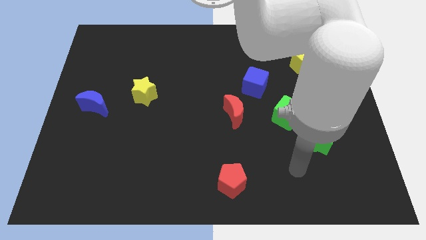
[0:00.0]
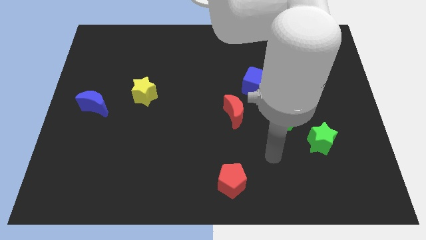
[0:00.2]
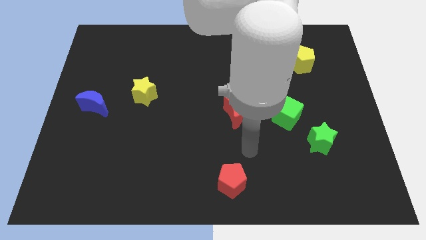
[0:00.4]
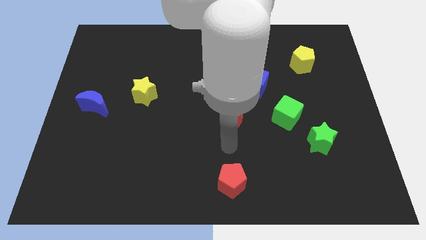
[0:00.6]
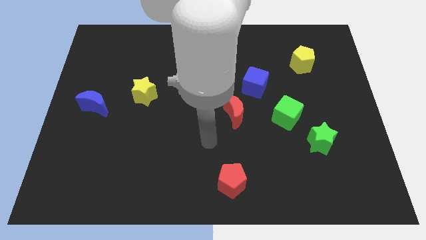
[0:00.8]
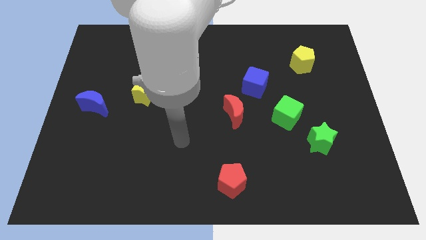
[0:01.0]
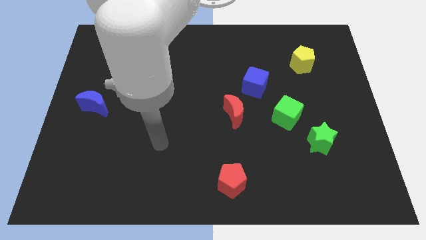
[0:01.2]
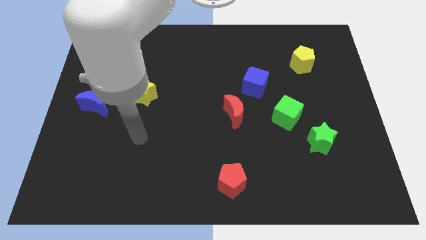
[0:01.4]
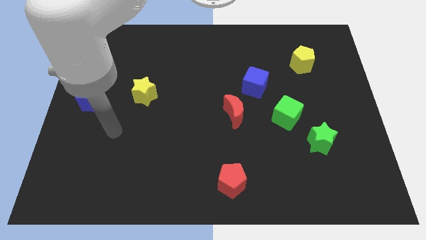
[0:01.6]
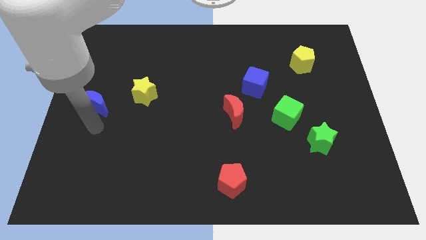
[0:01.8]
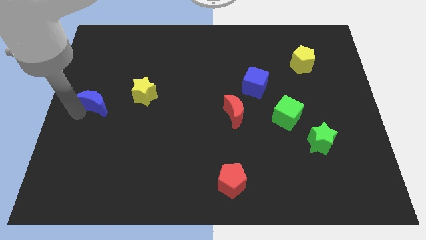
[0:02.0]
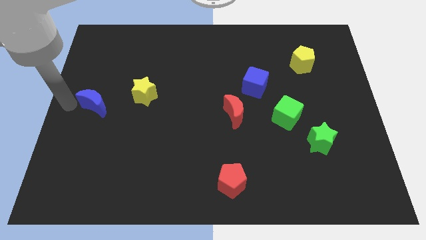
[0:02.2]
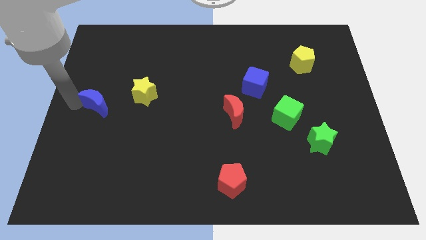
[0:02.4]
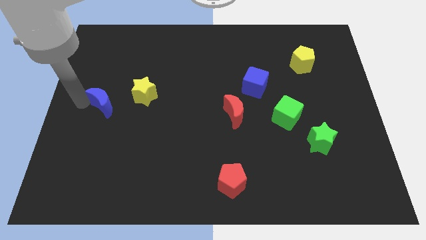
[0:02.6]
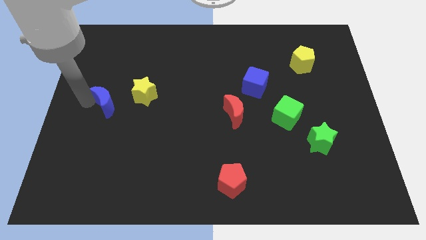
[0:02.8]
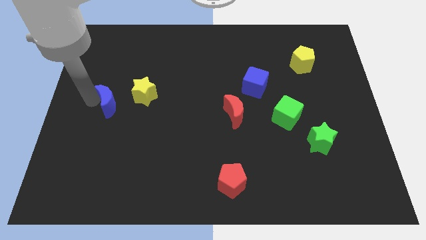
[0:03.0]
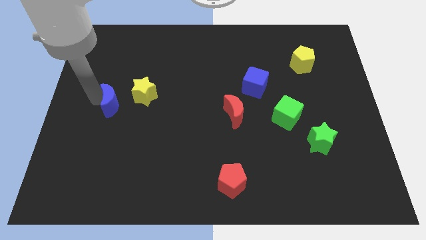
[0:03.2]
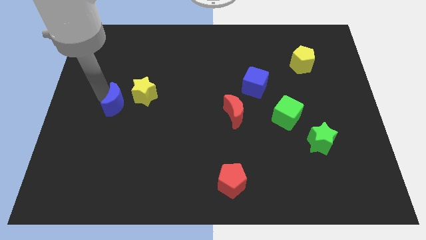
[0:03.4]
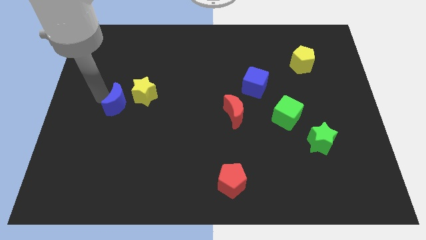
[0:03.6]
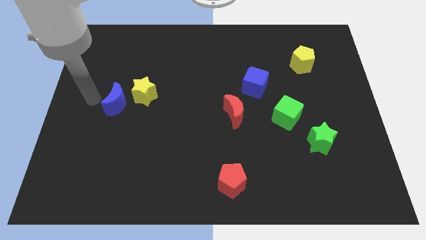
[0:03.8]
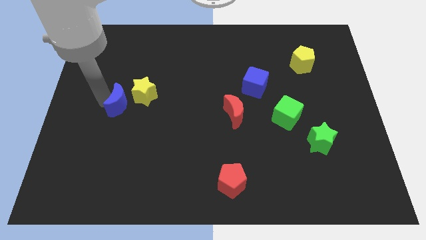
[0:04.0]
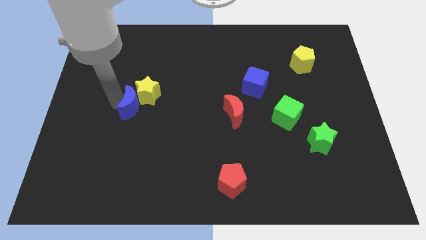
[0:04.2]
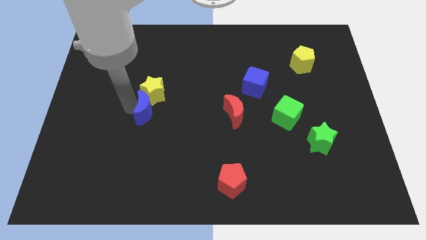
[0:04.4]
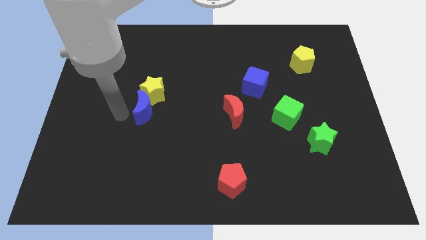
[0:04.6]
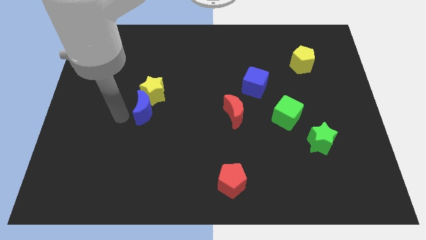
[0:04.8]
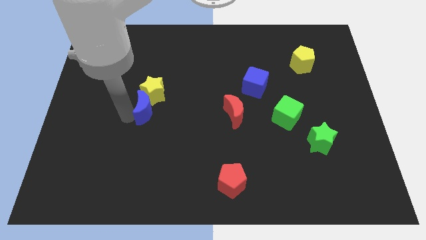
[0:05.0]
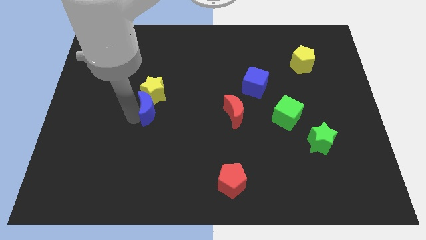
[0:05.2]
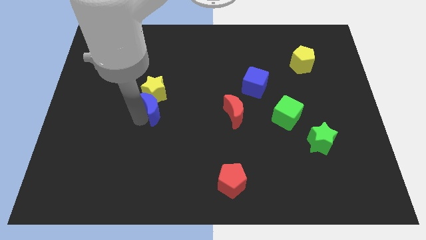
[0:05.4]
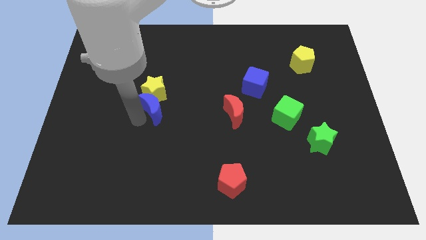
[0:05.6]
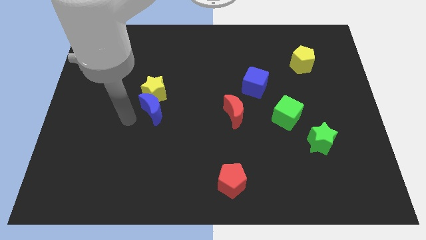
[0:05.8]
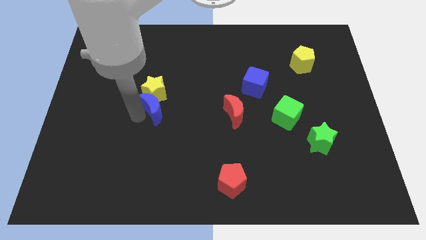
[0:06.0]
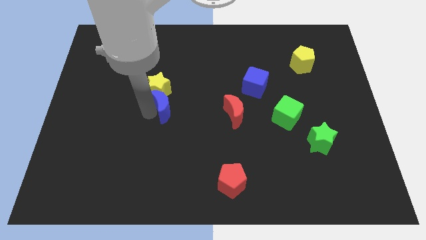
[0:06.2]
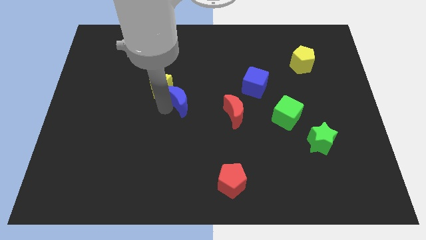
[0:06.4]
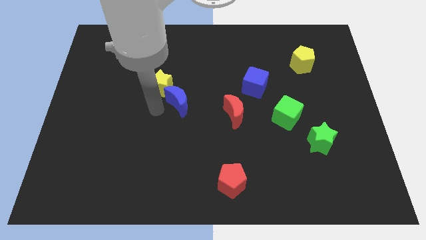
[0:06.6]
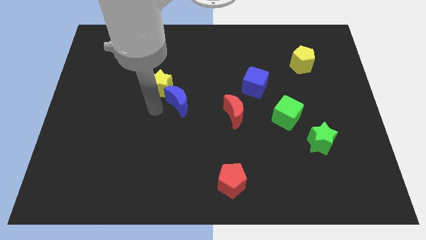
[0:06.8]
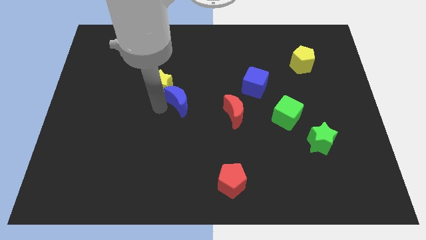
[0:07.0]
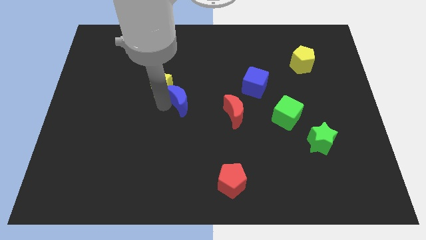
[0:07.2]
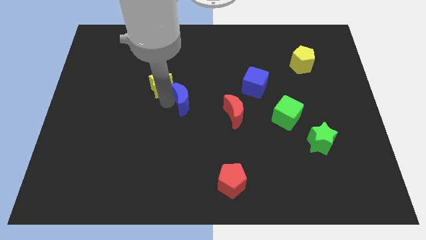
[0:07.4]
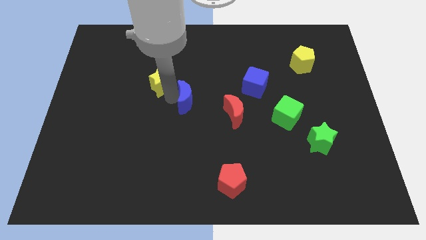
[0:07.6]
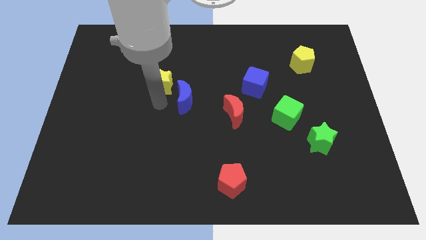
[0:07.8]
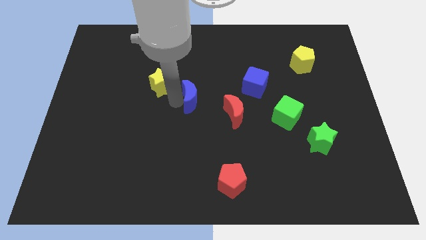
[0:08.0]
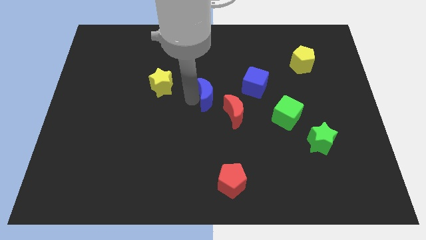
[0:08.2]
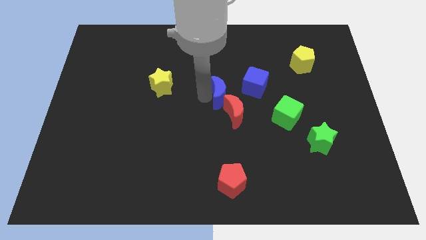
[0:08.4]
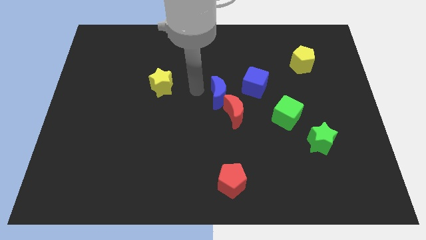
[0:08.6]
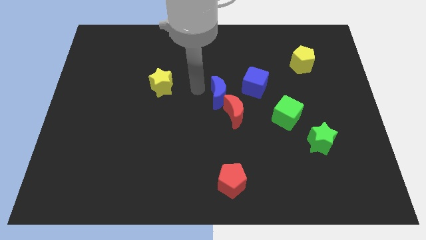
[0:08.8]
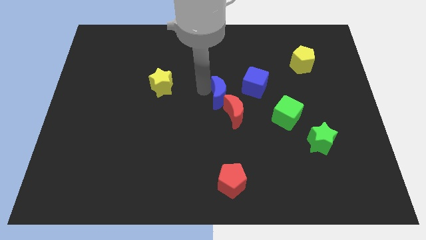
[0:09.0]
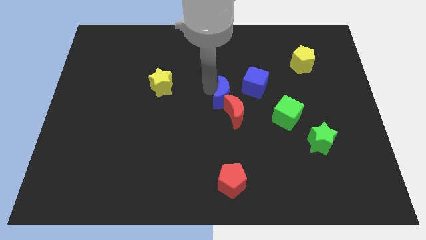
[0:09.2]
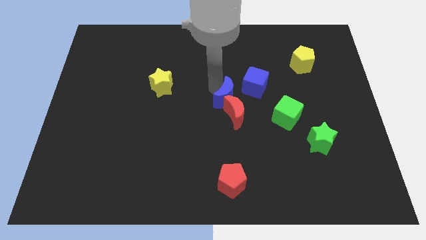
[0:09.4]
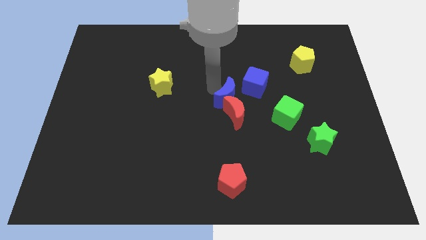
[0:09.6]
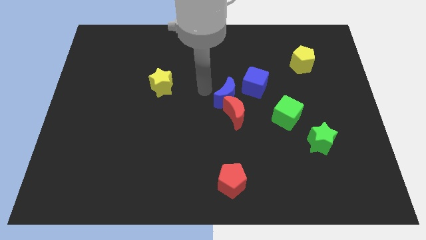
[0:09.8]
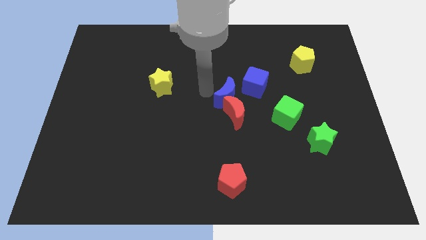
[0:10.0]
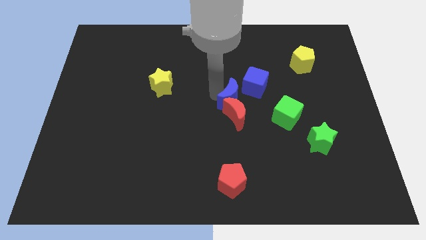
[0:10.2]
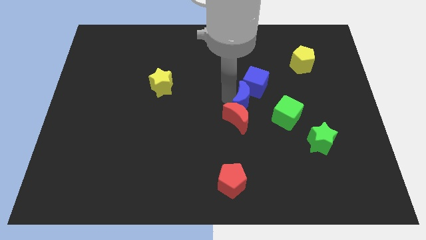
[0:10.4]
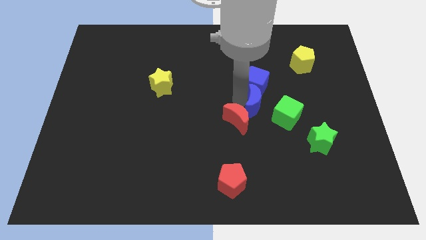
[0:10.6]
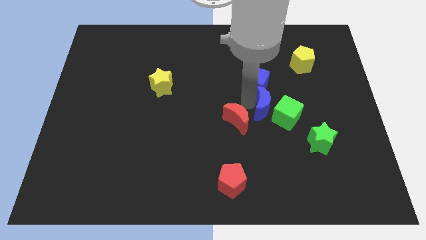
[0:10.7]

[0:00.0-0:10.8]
put the blue moon to the green cube
